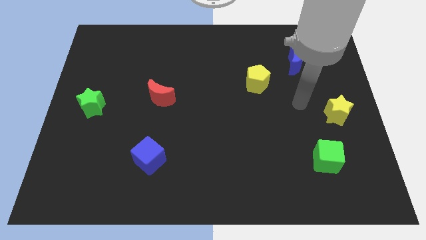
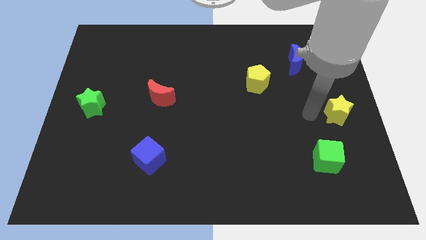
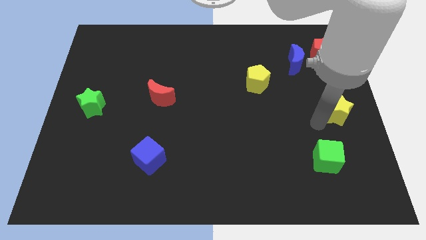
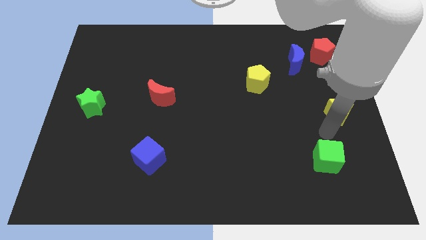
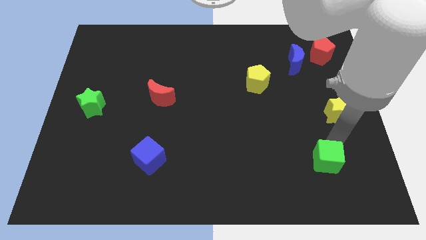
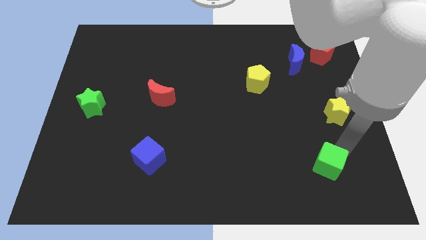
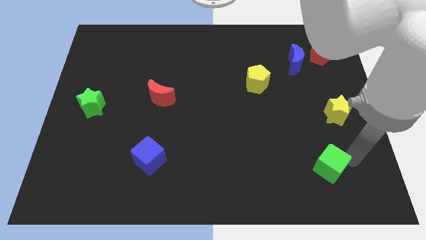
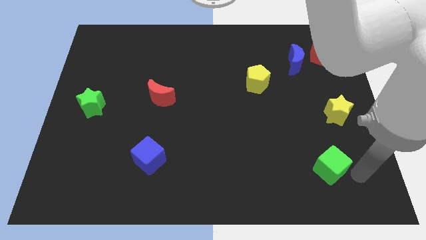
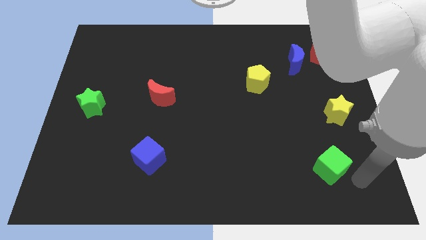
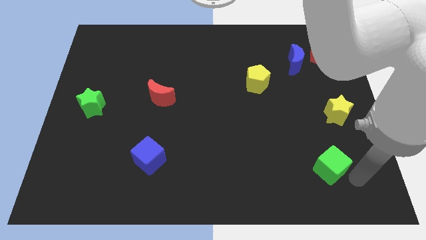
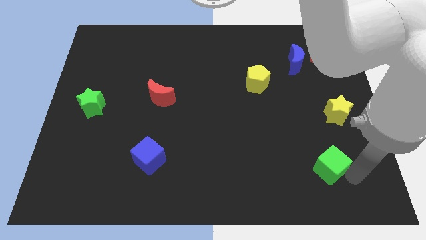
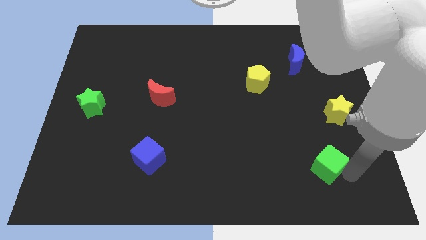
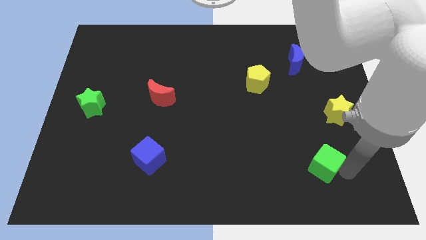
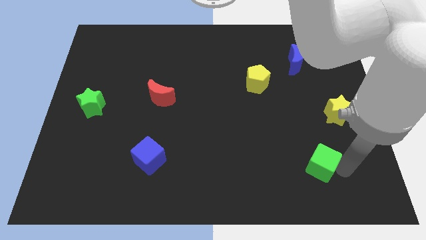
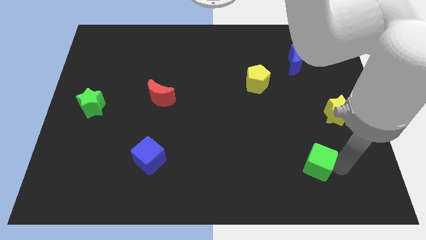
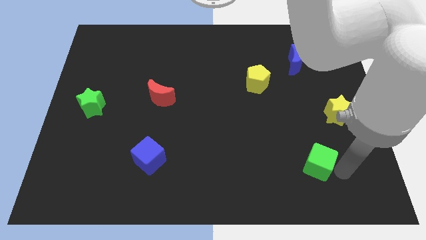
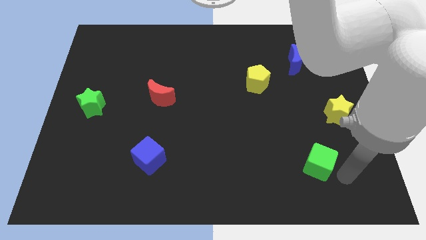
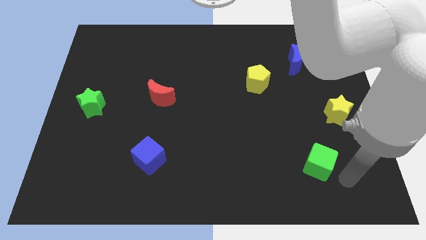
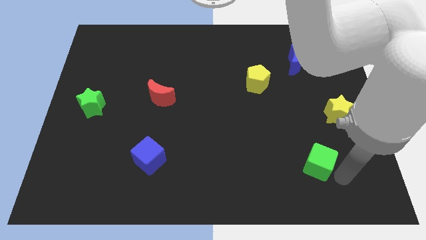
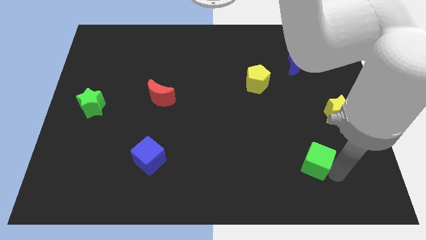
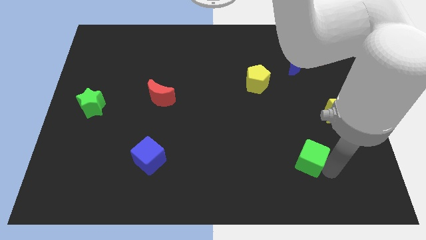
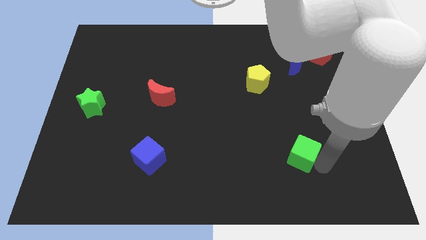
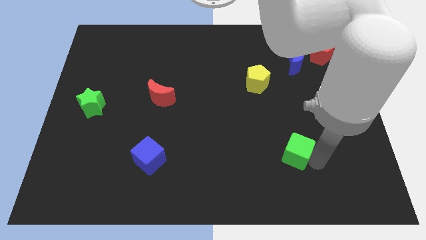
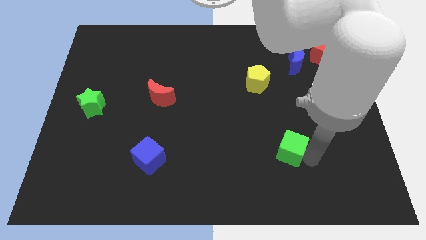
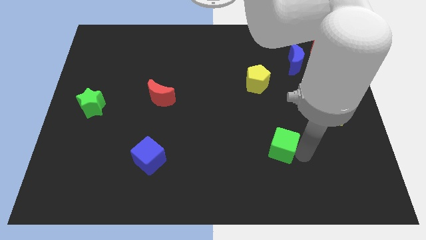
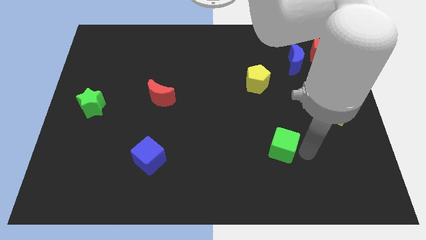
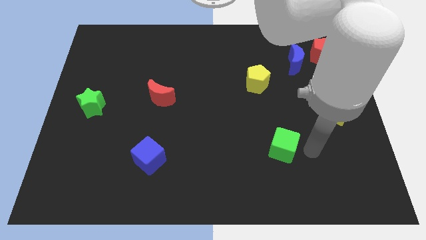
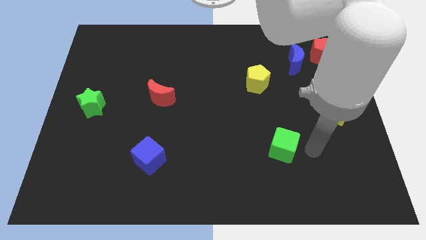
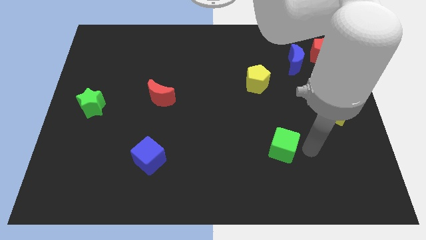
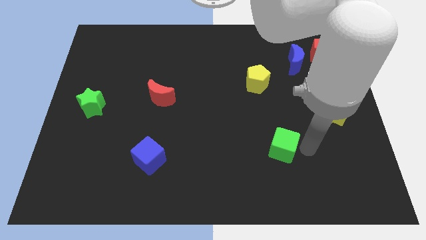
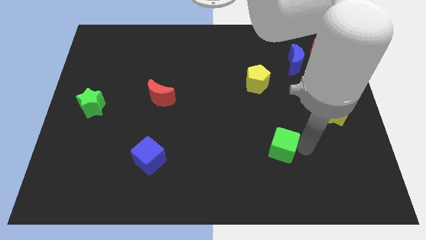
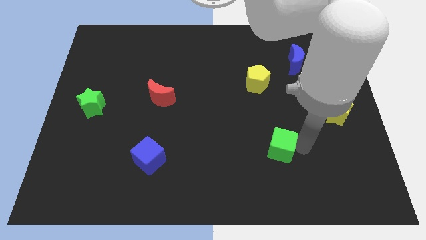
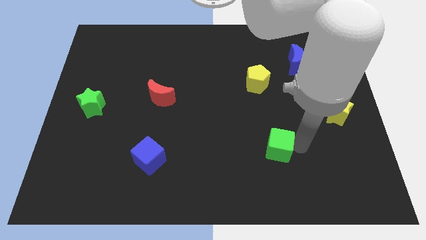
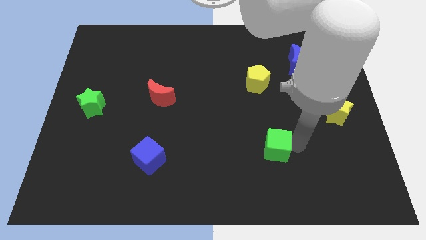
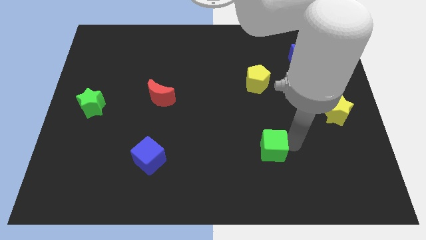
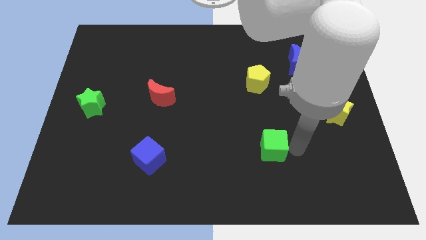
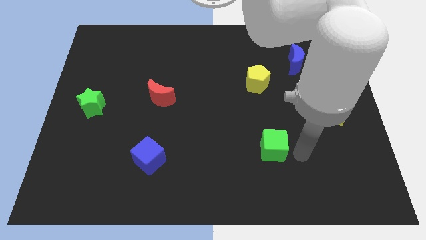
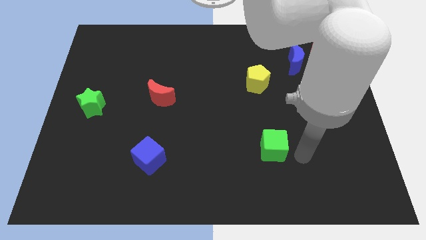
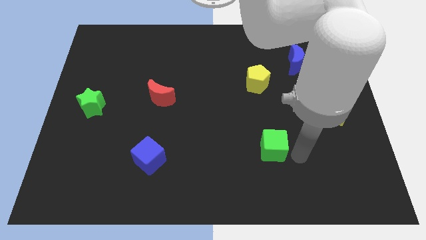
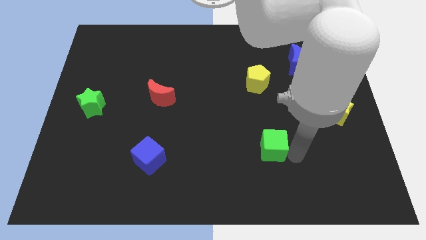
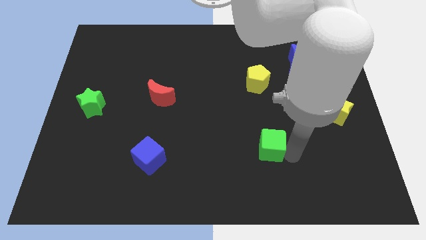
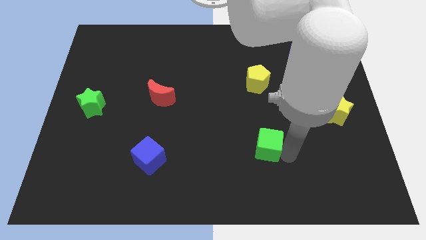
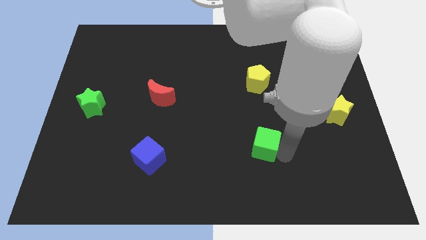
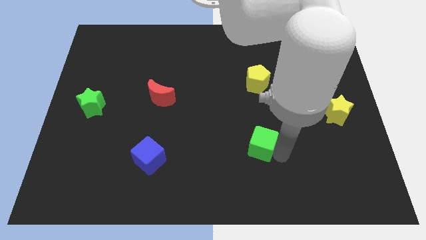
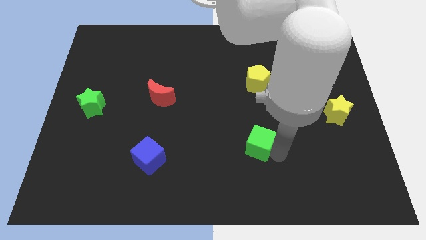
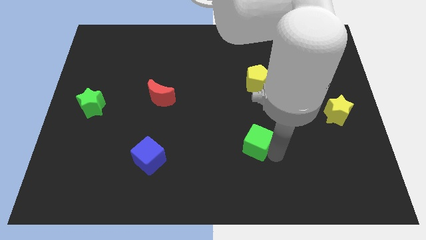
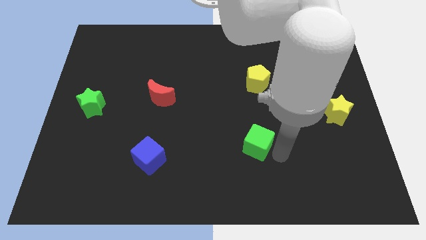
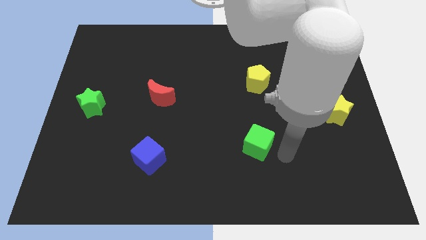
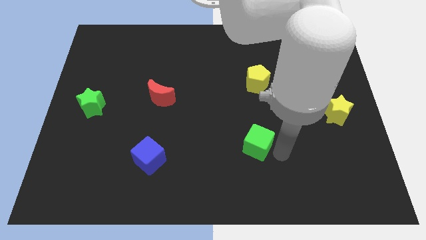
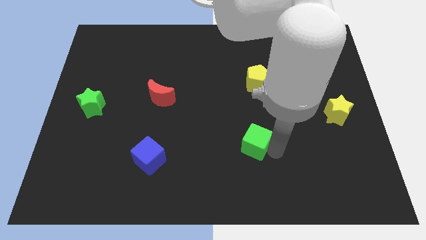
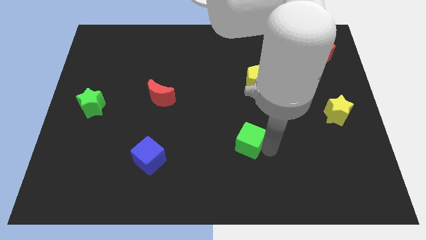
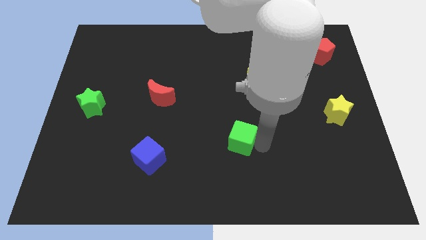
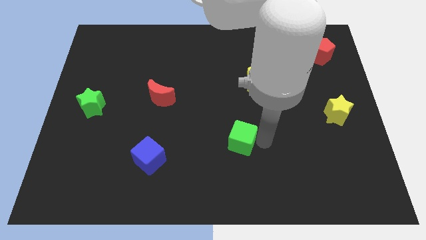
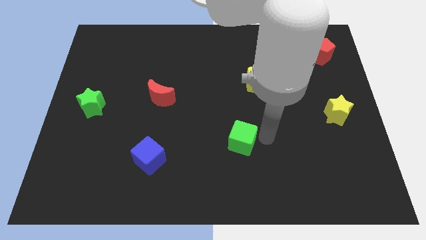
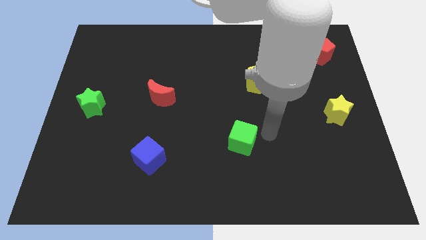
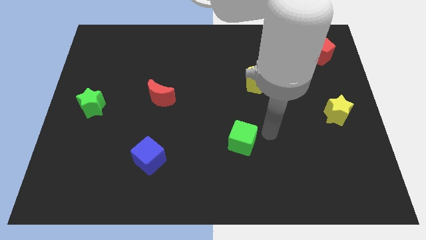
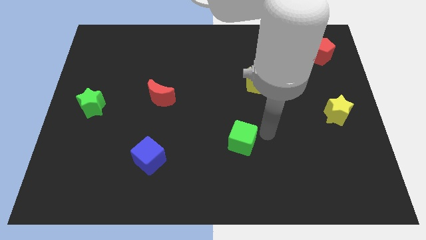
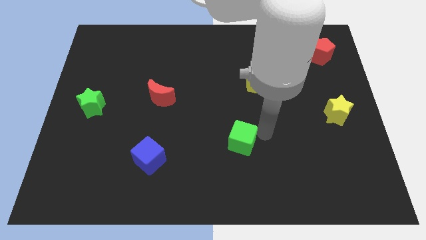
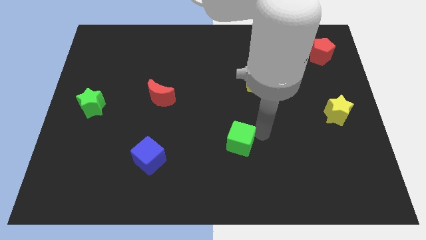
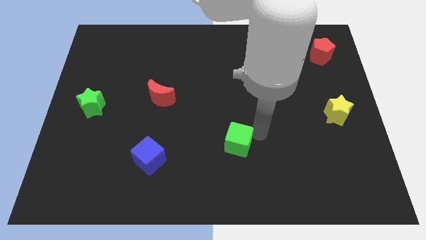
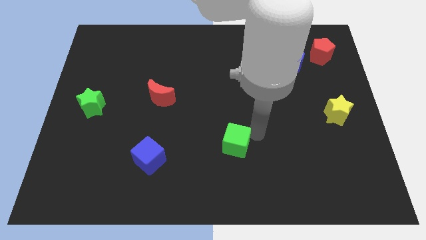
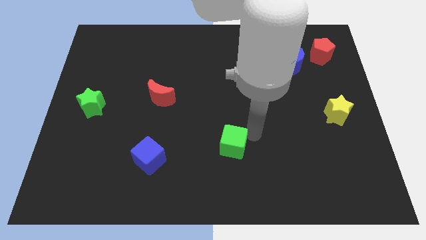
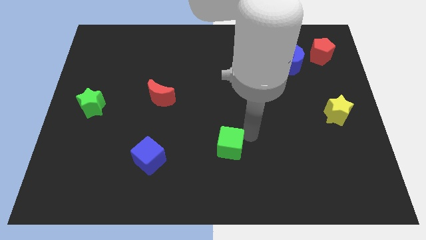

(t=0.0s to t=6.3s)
move the green cube left

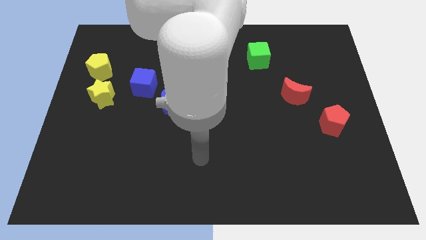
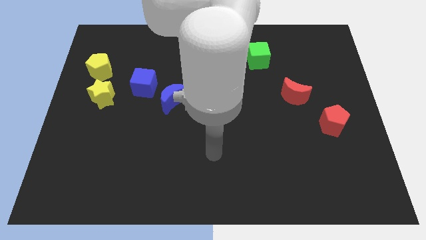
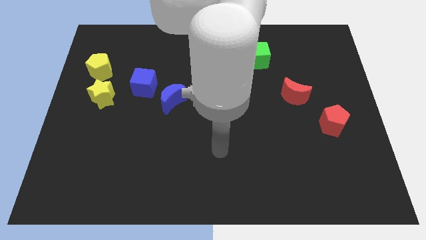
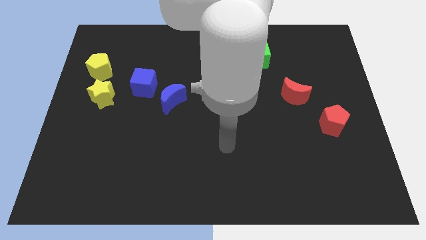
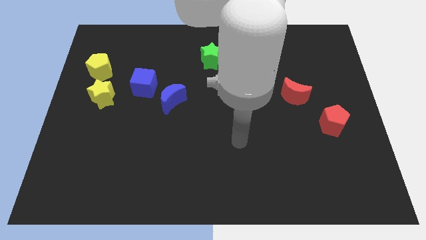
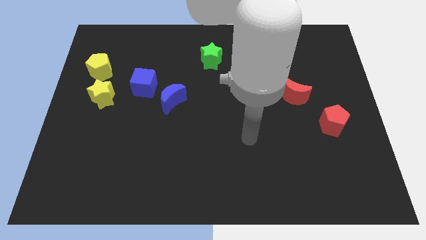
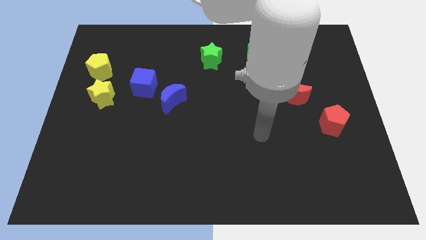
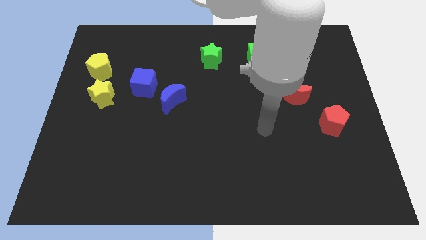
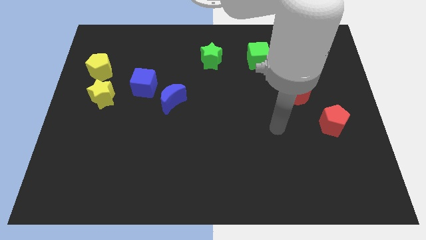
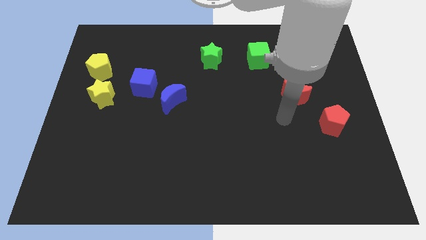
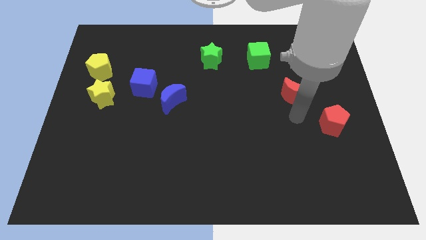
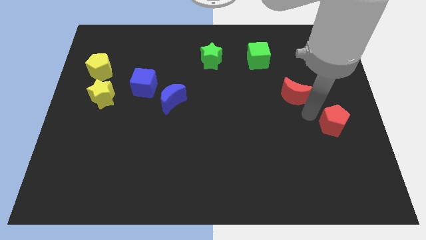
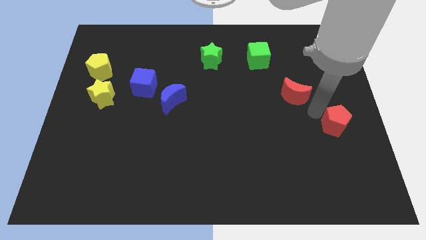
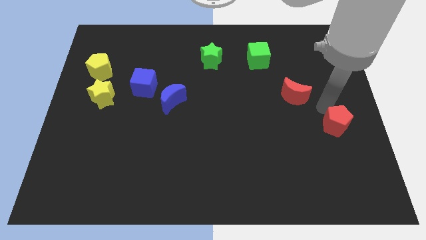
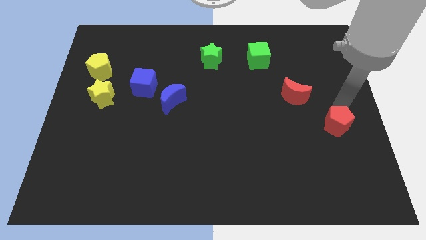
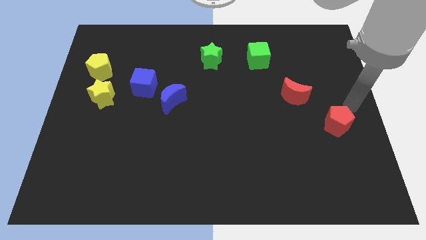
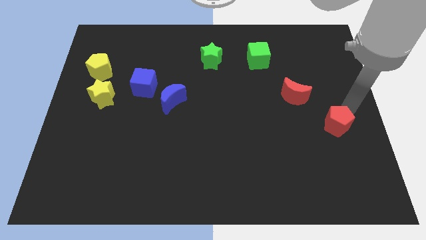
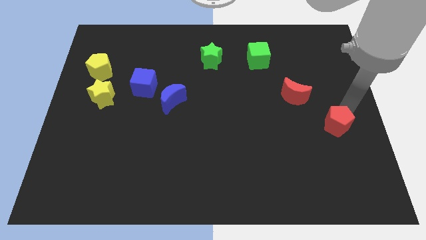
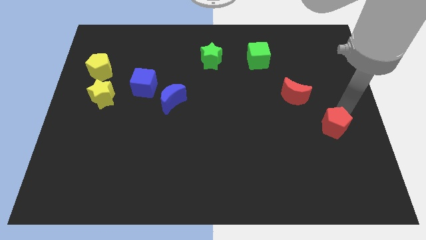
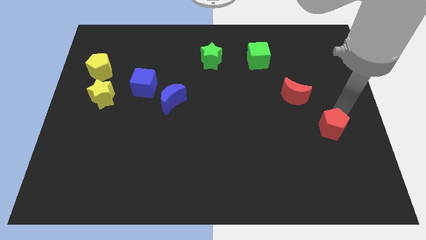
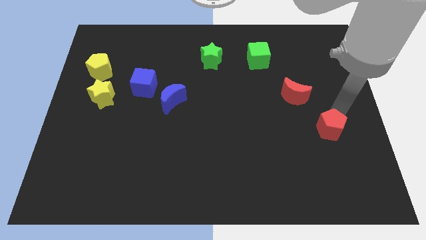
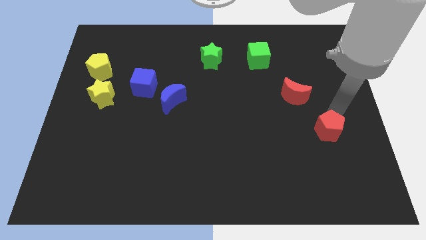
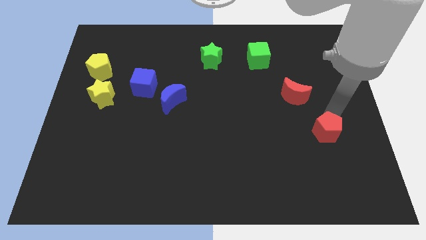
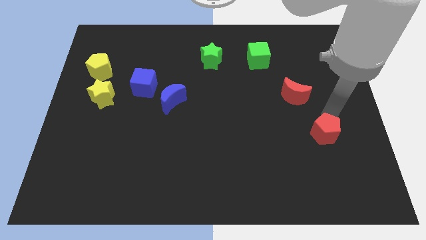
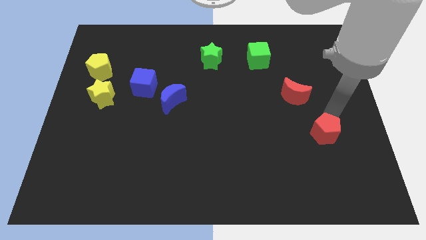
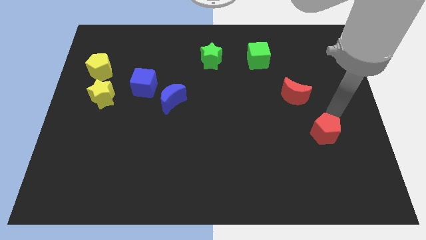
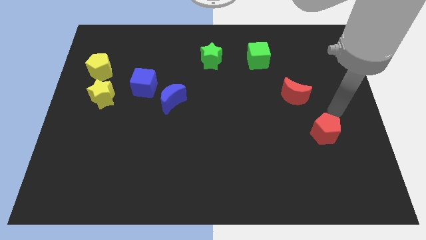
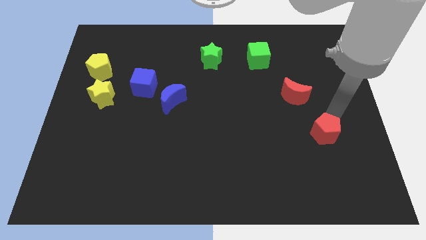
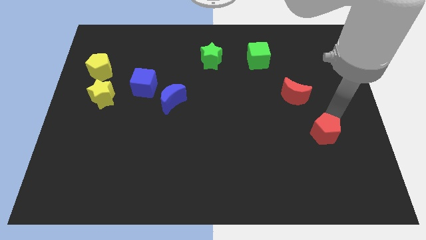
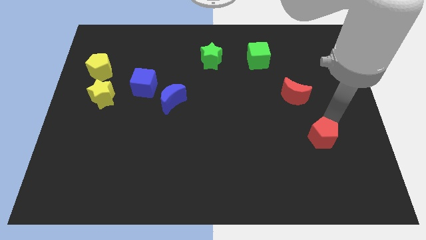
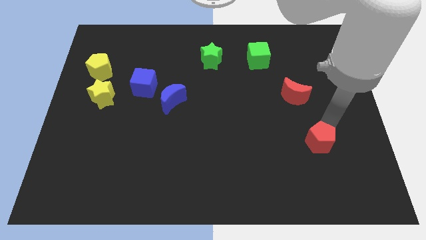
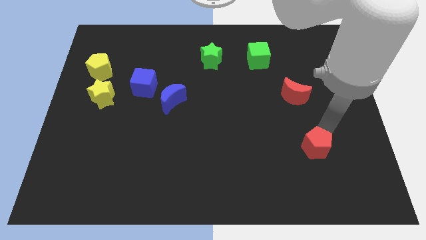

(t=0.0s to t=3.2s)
slide the red pentagon a little bit down and then to the left
